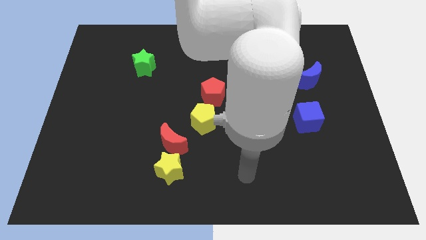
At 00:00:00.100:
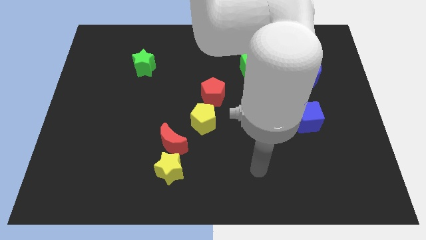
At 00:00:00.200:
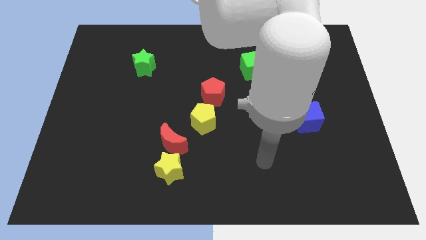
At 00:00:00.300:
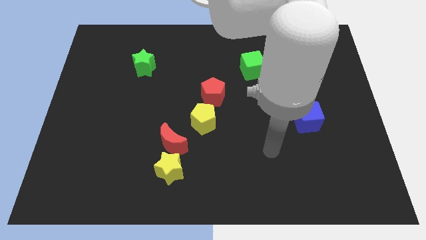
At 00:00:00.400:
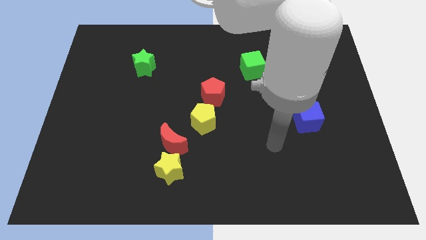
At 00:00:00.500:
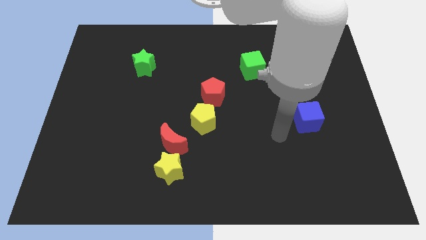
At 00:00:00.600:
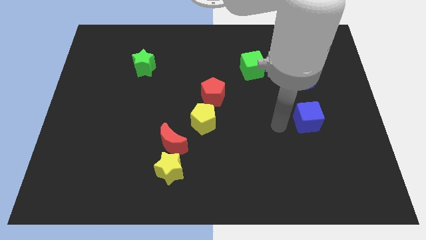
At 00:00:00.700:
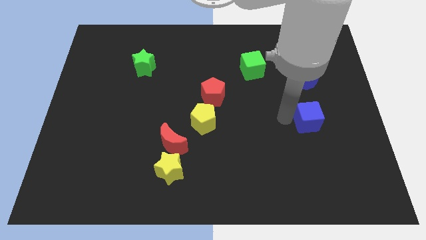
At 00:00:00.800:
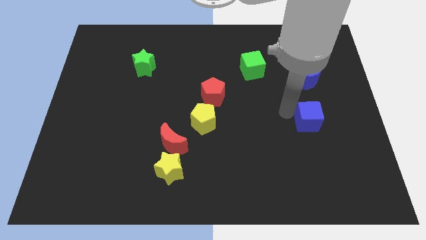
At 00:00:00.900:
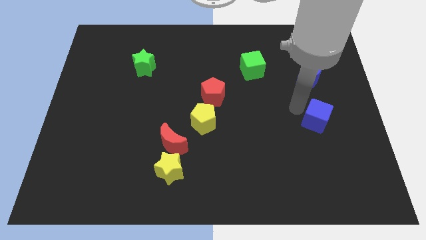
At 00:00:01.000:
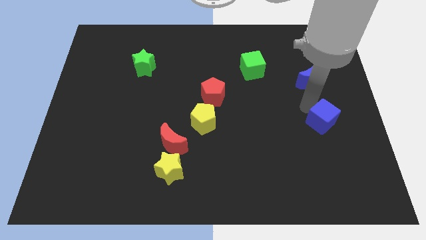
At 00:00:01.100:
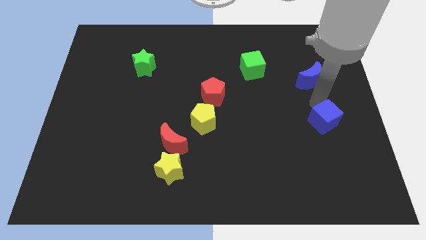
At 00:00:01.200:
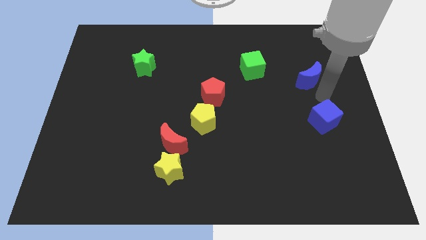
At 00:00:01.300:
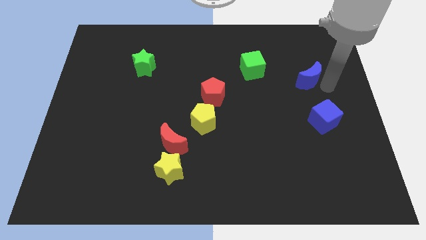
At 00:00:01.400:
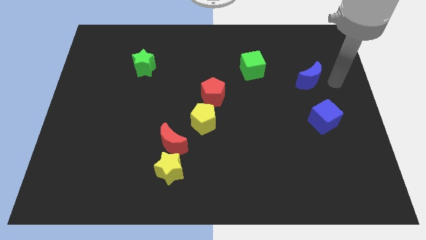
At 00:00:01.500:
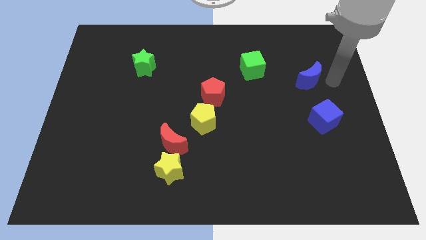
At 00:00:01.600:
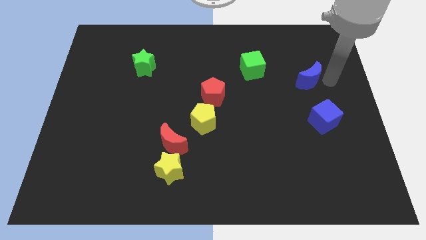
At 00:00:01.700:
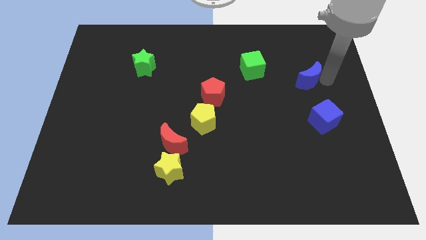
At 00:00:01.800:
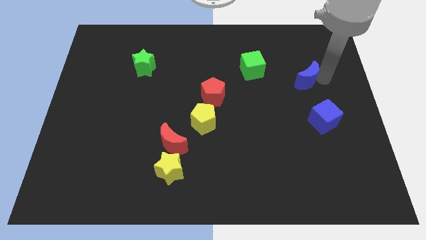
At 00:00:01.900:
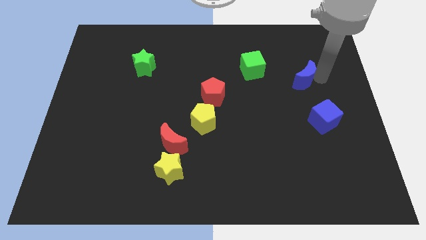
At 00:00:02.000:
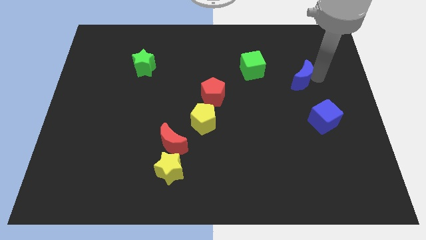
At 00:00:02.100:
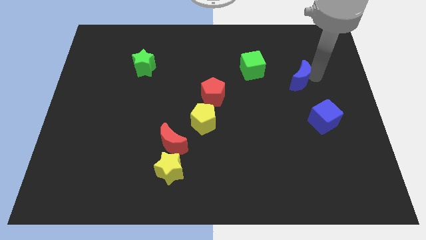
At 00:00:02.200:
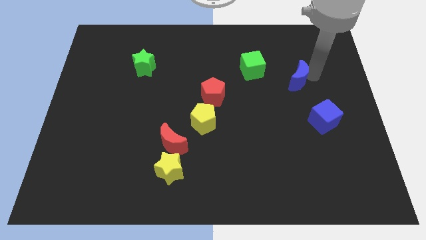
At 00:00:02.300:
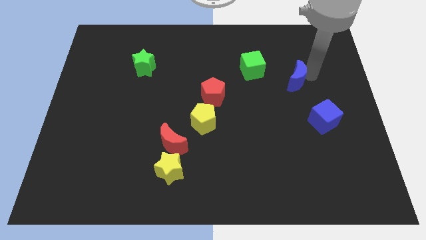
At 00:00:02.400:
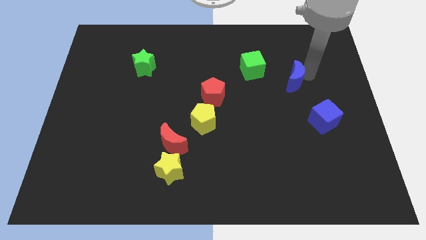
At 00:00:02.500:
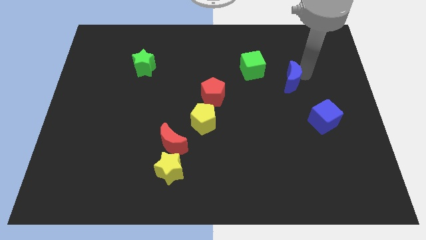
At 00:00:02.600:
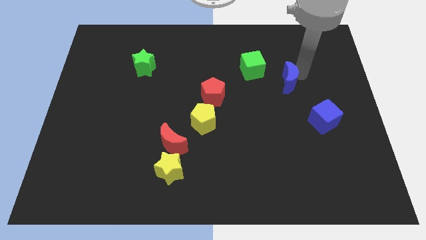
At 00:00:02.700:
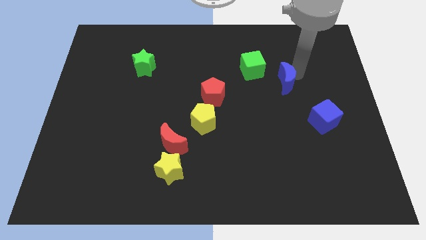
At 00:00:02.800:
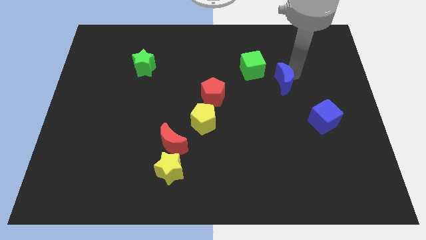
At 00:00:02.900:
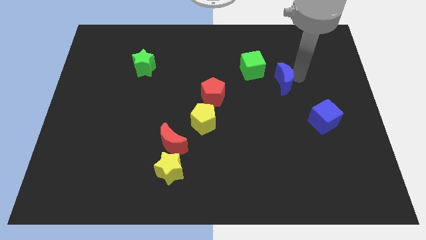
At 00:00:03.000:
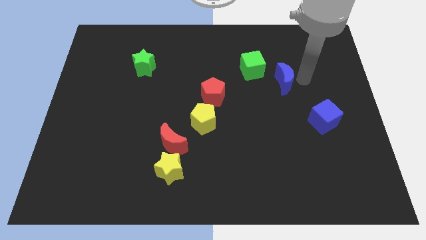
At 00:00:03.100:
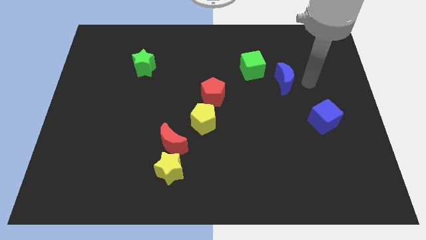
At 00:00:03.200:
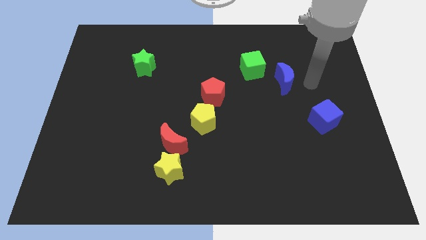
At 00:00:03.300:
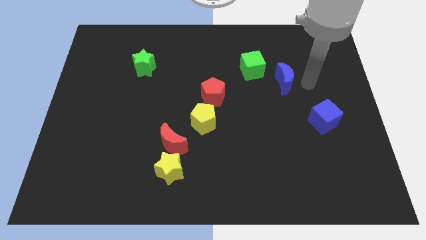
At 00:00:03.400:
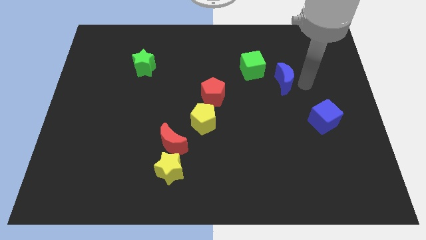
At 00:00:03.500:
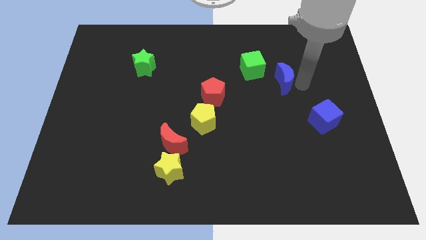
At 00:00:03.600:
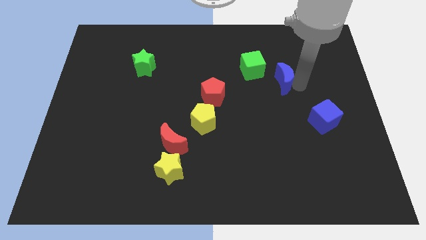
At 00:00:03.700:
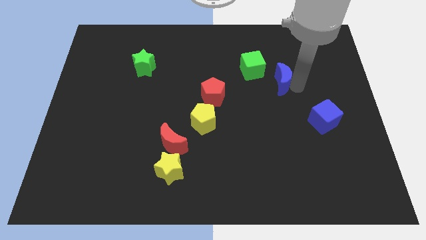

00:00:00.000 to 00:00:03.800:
slide the blue moon a little to the left

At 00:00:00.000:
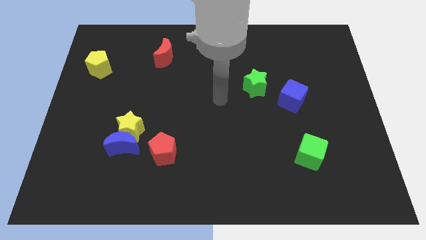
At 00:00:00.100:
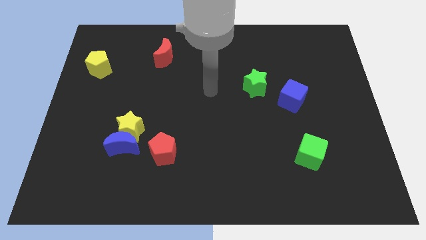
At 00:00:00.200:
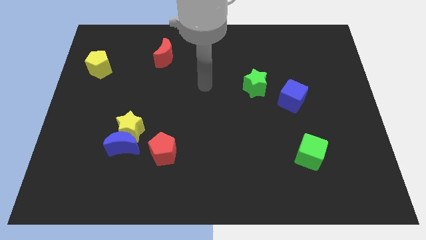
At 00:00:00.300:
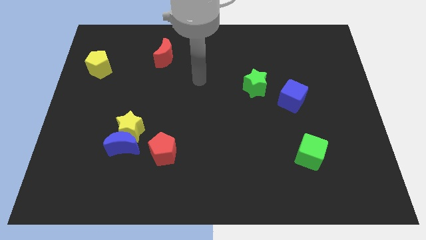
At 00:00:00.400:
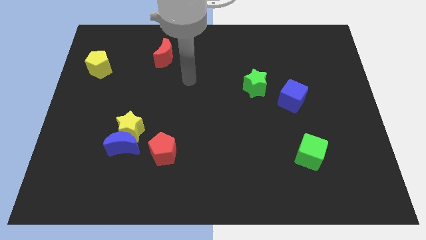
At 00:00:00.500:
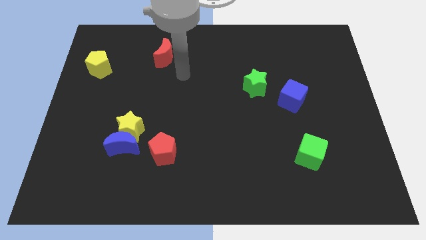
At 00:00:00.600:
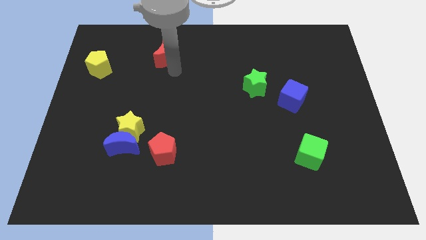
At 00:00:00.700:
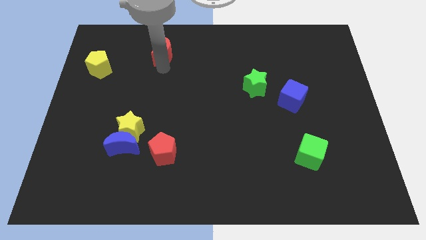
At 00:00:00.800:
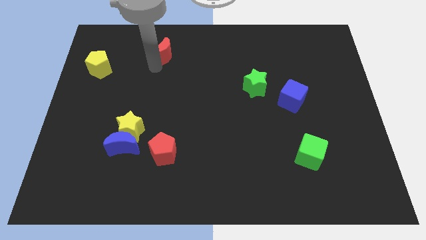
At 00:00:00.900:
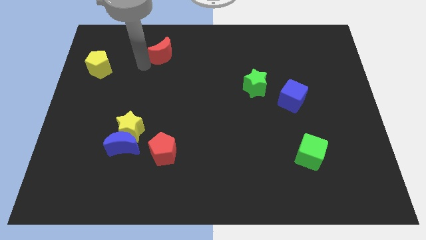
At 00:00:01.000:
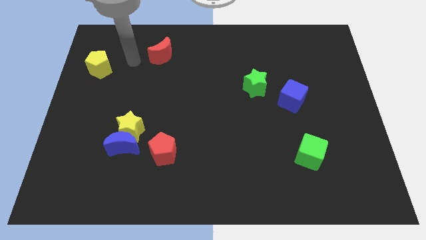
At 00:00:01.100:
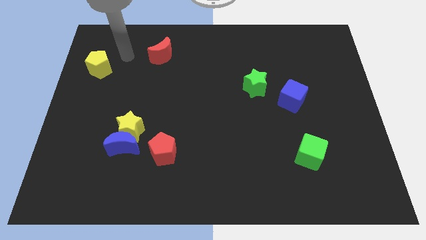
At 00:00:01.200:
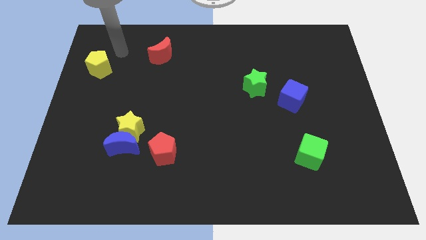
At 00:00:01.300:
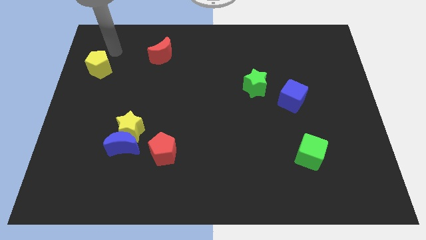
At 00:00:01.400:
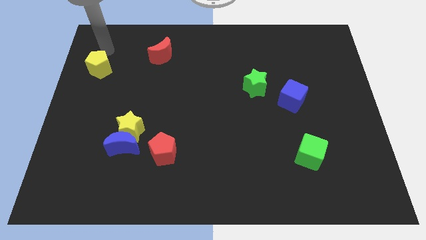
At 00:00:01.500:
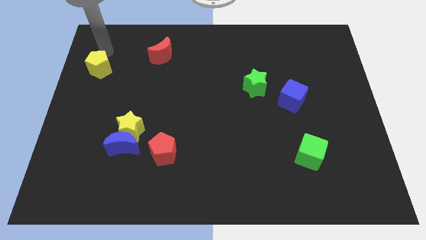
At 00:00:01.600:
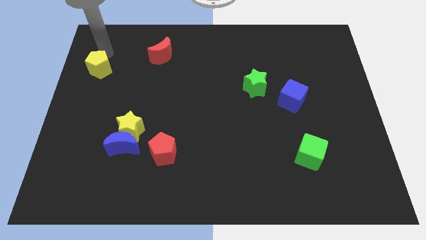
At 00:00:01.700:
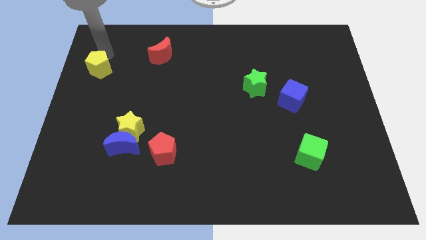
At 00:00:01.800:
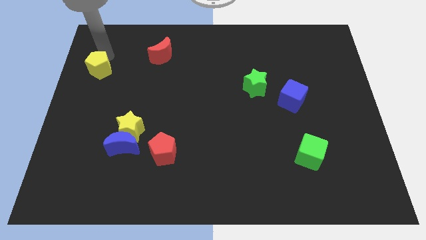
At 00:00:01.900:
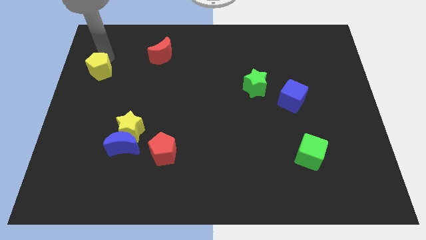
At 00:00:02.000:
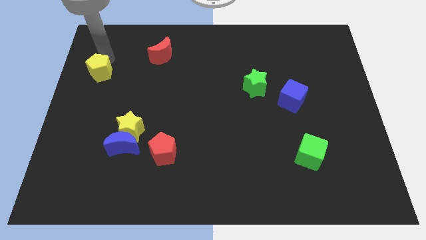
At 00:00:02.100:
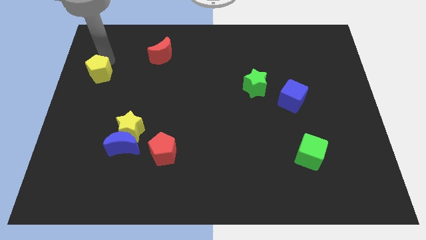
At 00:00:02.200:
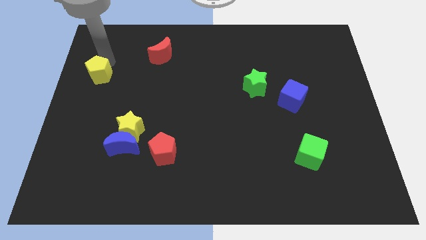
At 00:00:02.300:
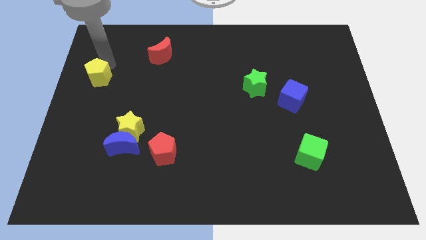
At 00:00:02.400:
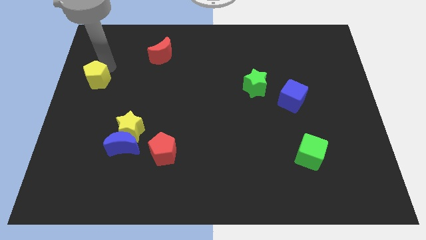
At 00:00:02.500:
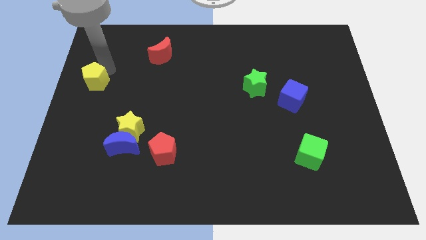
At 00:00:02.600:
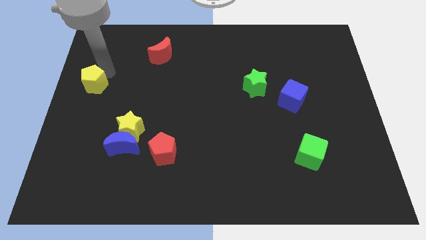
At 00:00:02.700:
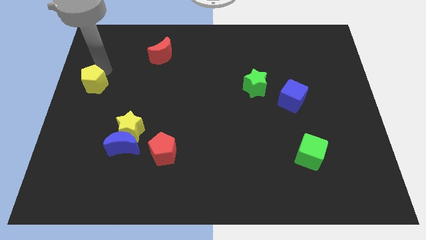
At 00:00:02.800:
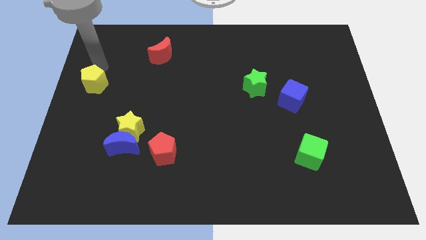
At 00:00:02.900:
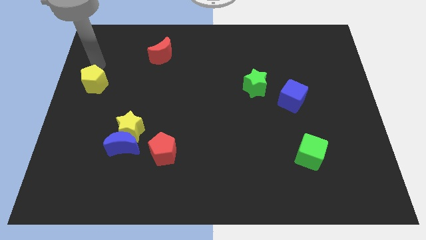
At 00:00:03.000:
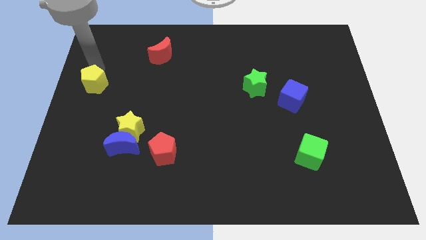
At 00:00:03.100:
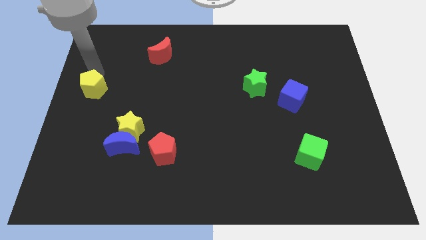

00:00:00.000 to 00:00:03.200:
slightly push the yellow pentagon down

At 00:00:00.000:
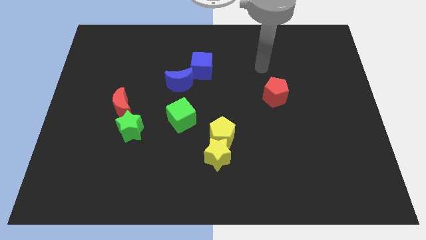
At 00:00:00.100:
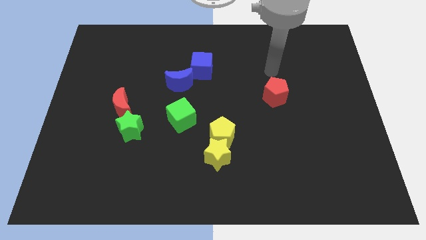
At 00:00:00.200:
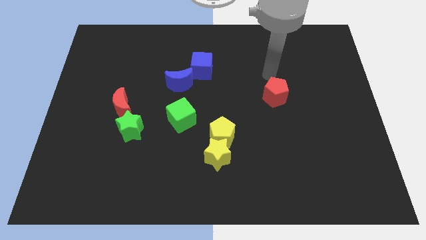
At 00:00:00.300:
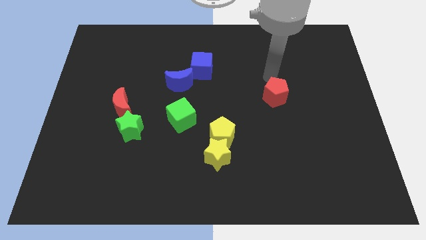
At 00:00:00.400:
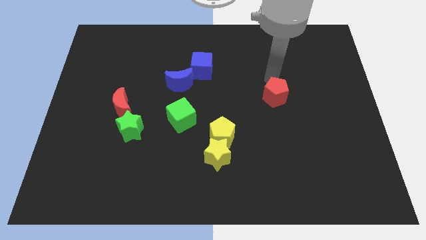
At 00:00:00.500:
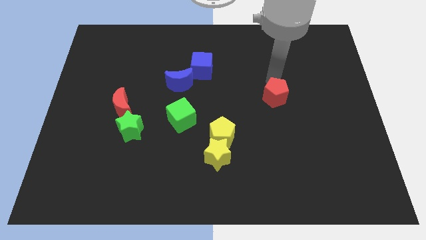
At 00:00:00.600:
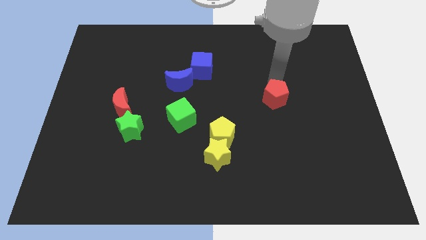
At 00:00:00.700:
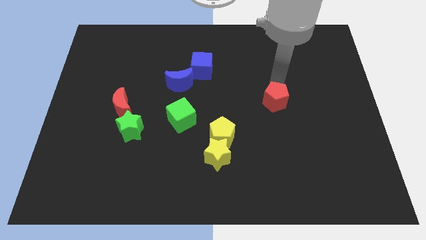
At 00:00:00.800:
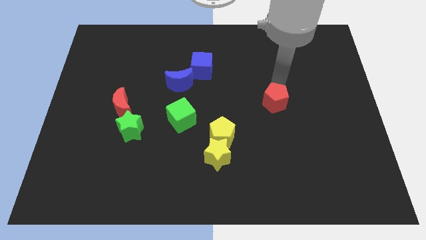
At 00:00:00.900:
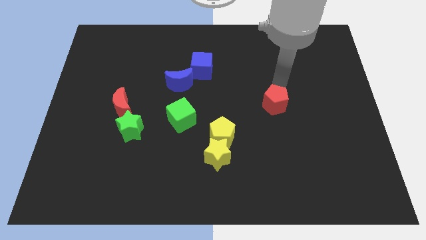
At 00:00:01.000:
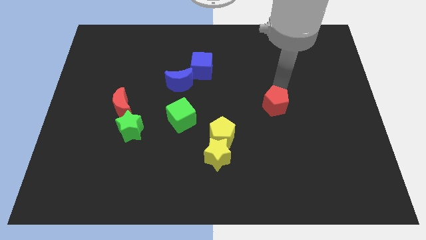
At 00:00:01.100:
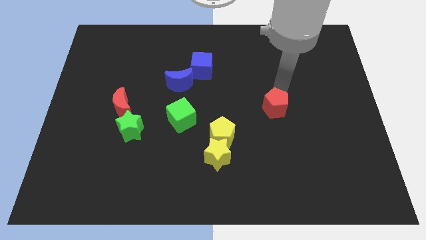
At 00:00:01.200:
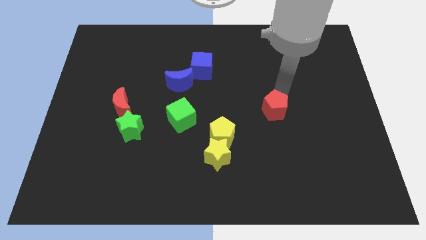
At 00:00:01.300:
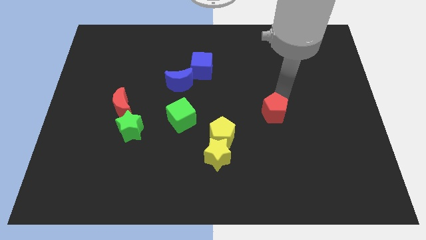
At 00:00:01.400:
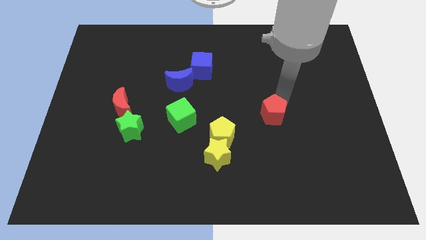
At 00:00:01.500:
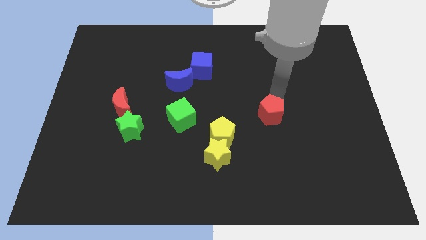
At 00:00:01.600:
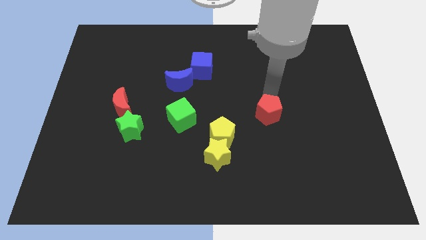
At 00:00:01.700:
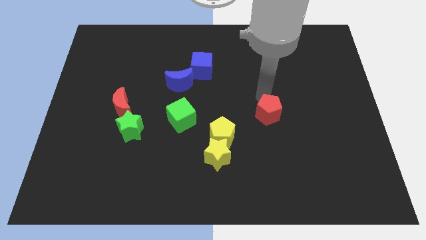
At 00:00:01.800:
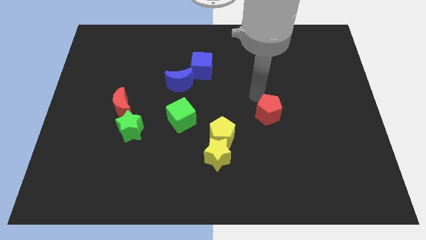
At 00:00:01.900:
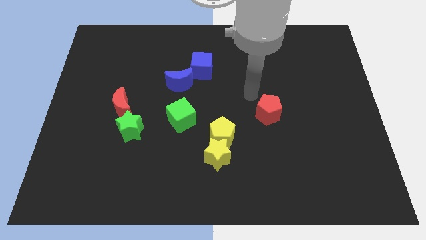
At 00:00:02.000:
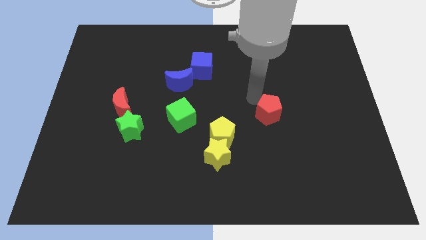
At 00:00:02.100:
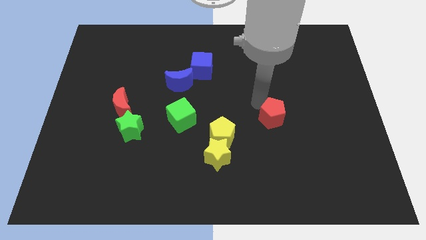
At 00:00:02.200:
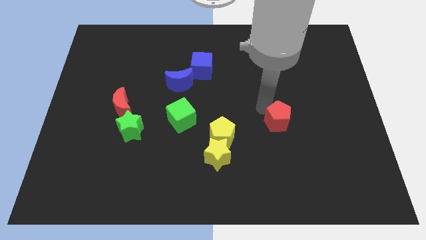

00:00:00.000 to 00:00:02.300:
move the red pentagon a little downwards
